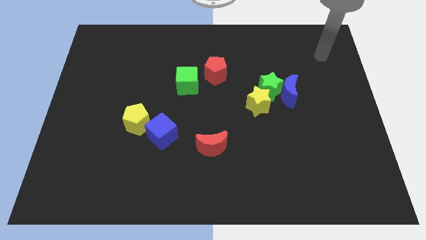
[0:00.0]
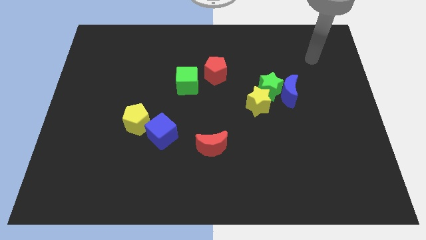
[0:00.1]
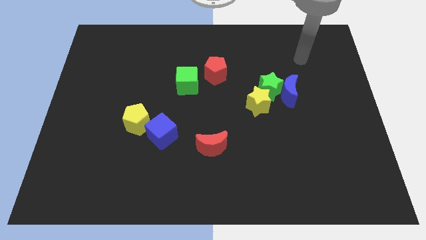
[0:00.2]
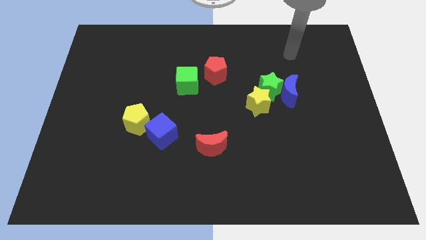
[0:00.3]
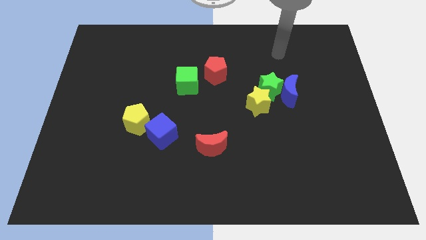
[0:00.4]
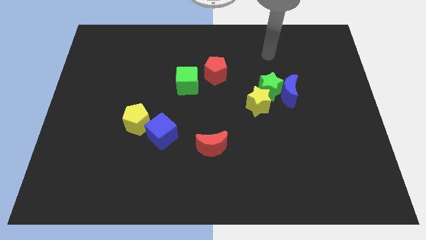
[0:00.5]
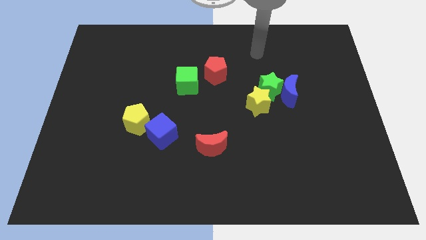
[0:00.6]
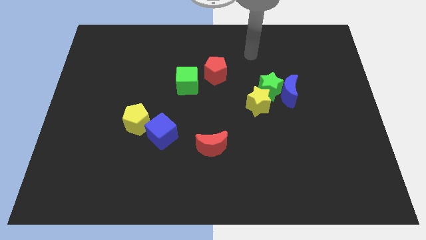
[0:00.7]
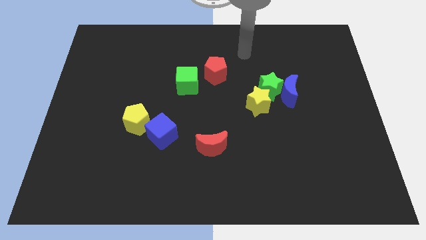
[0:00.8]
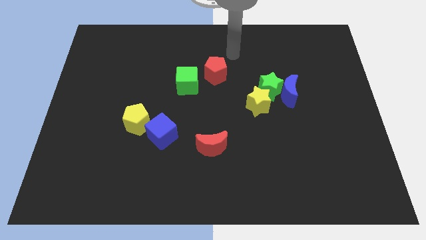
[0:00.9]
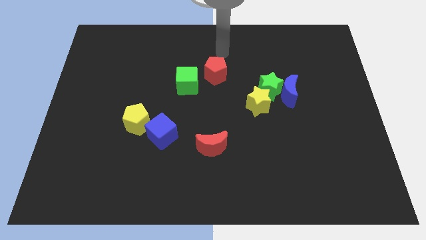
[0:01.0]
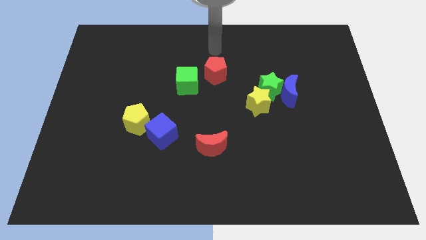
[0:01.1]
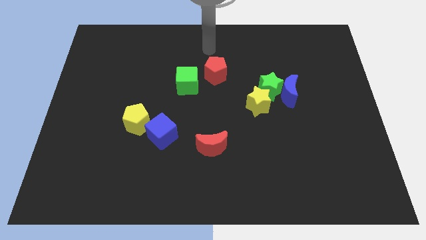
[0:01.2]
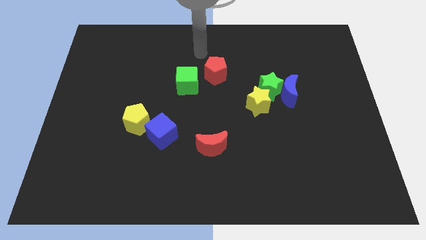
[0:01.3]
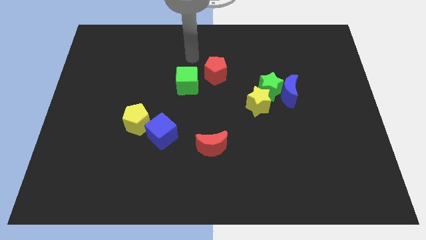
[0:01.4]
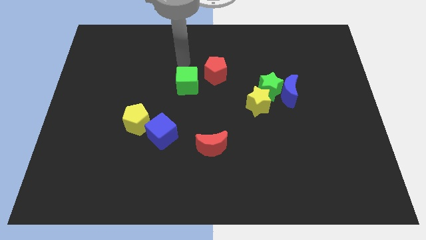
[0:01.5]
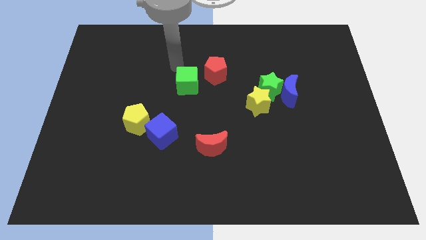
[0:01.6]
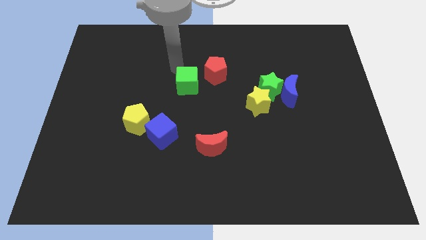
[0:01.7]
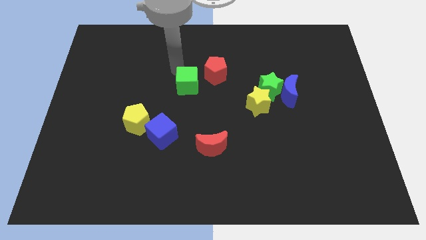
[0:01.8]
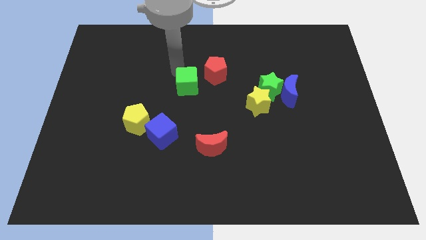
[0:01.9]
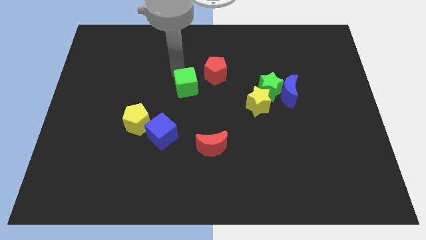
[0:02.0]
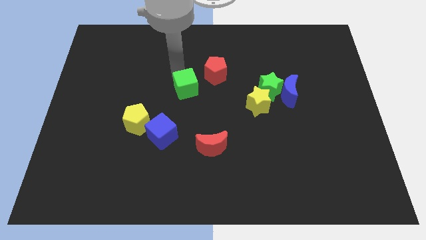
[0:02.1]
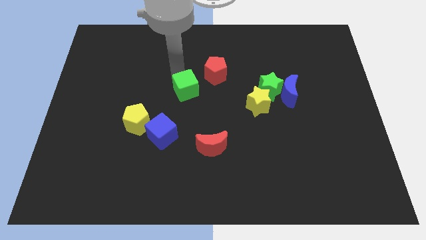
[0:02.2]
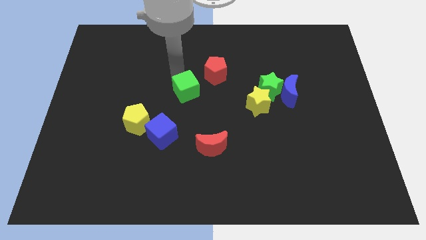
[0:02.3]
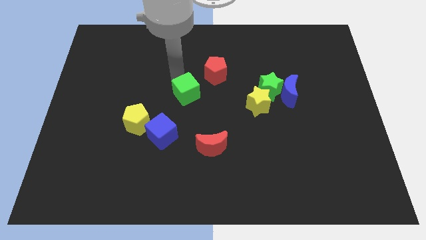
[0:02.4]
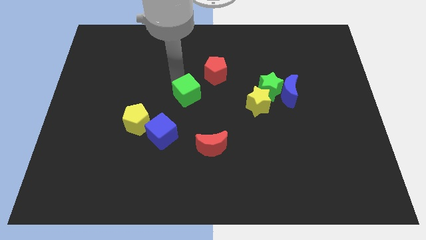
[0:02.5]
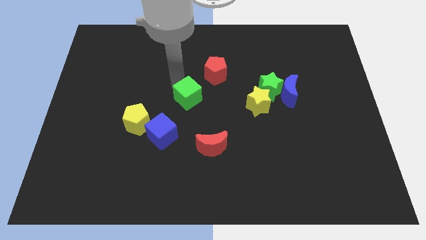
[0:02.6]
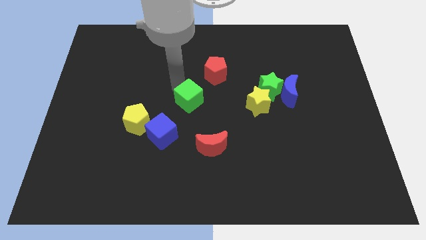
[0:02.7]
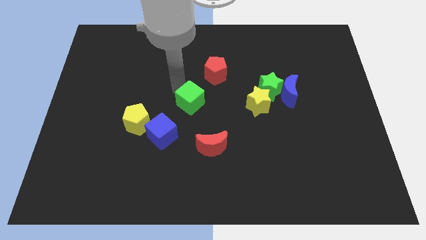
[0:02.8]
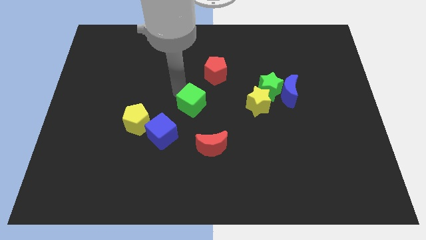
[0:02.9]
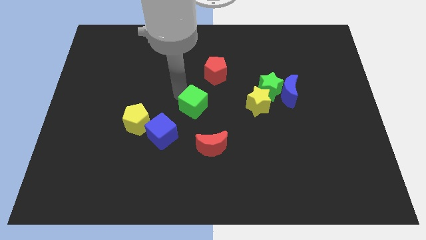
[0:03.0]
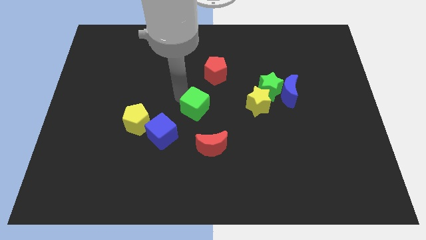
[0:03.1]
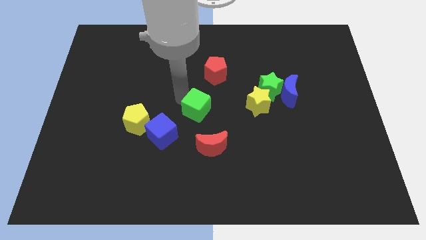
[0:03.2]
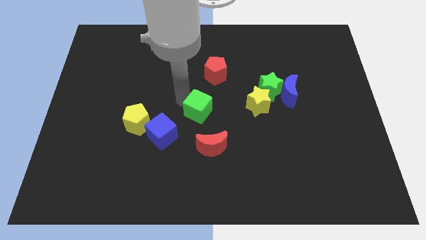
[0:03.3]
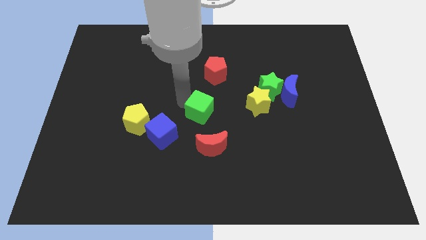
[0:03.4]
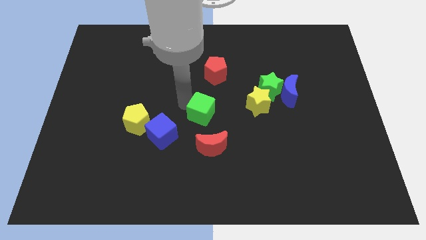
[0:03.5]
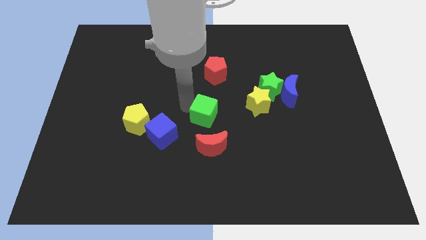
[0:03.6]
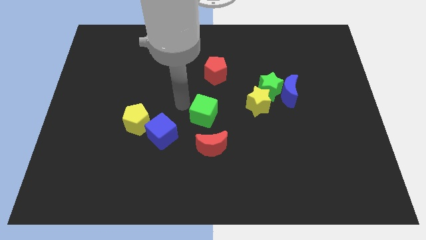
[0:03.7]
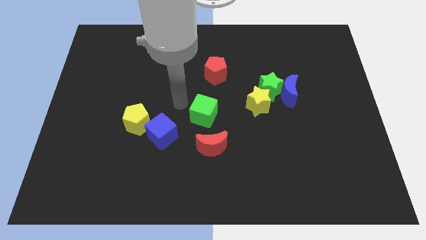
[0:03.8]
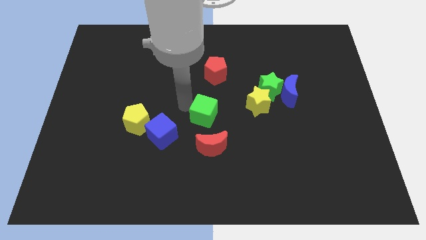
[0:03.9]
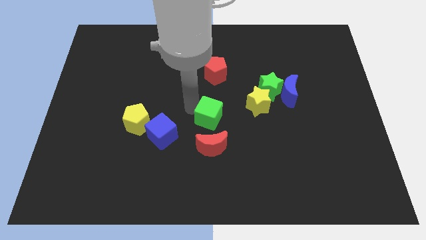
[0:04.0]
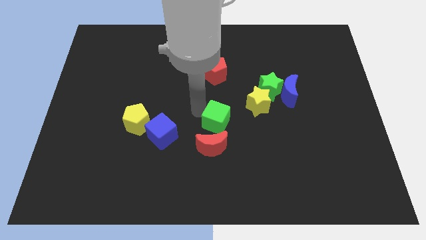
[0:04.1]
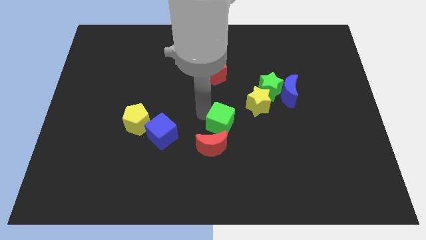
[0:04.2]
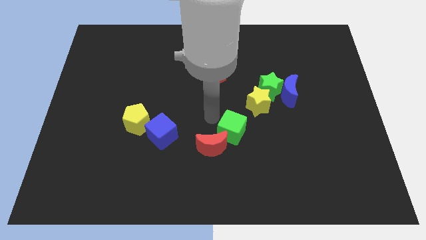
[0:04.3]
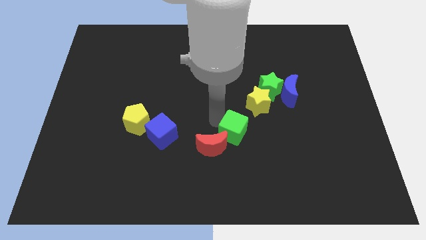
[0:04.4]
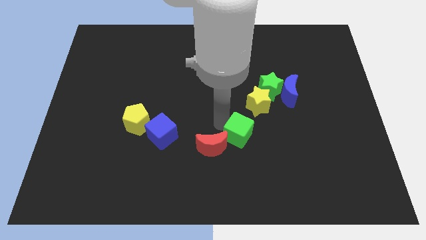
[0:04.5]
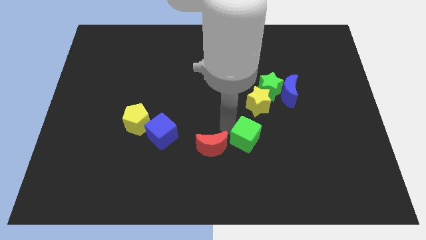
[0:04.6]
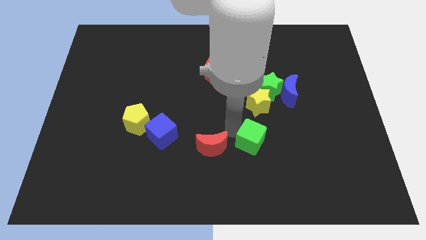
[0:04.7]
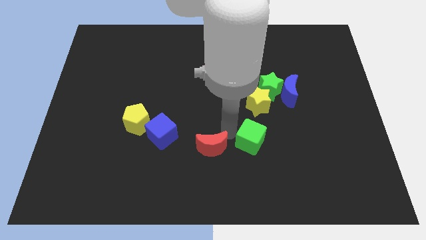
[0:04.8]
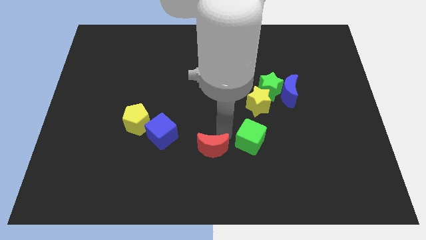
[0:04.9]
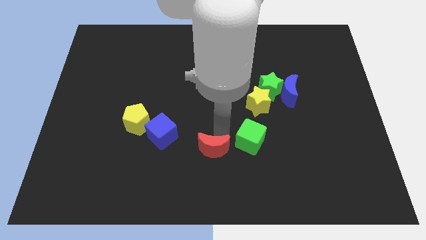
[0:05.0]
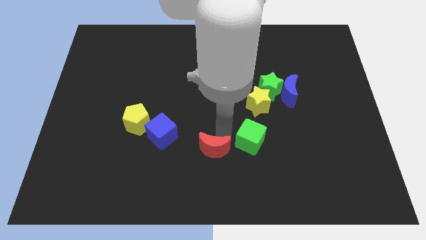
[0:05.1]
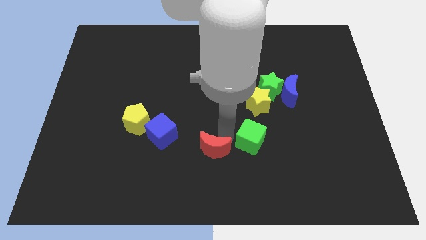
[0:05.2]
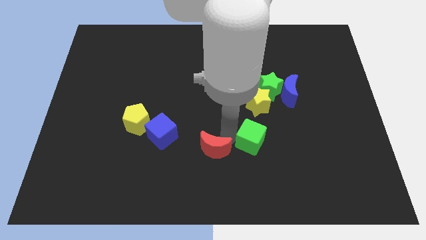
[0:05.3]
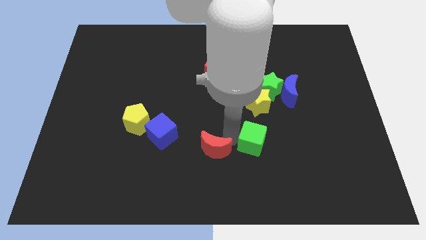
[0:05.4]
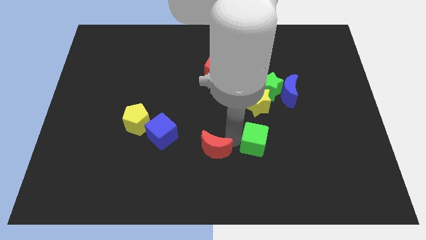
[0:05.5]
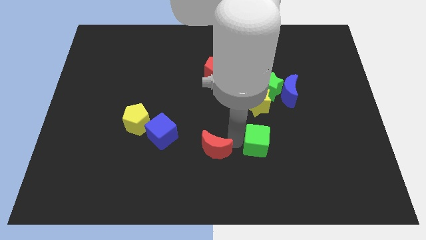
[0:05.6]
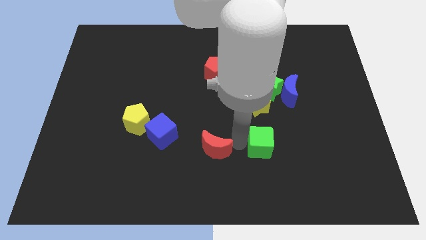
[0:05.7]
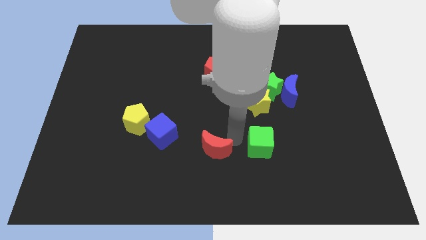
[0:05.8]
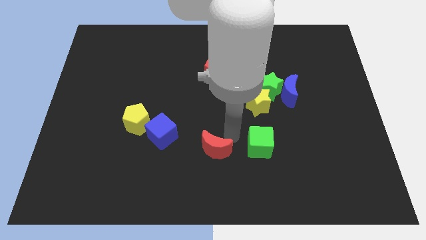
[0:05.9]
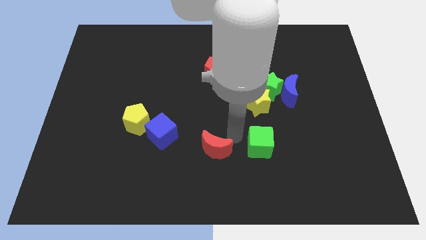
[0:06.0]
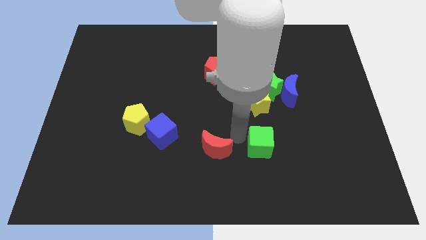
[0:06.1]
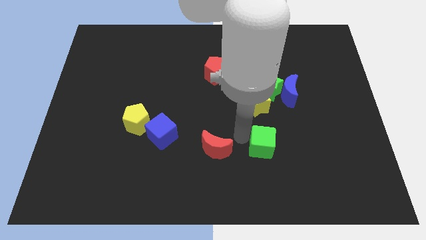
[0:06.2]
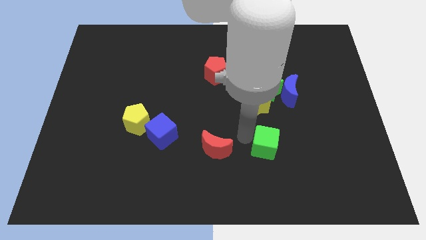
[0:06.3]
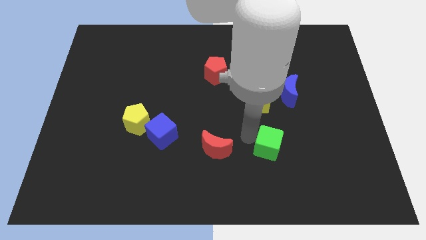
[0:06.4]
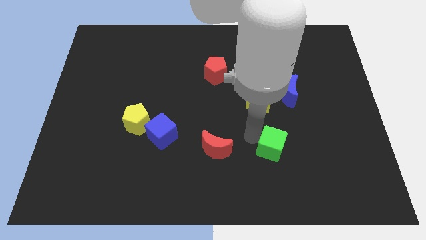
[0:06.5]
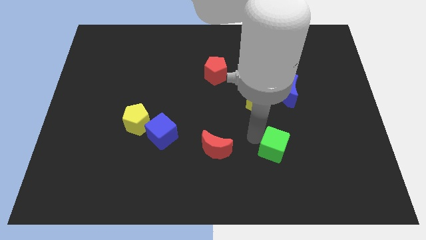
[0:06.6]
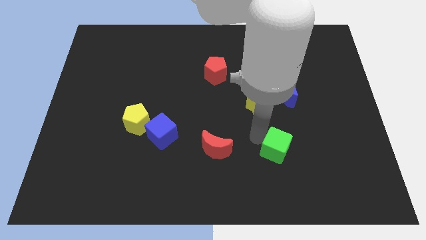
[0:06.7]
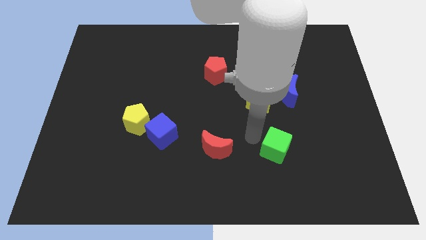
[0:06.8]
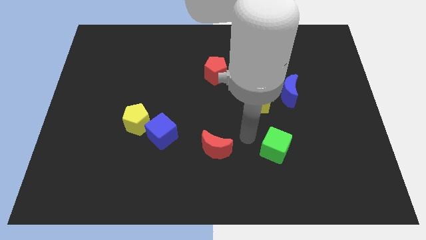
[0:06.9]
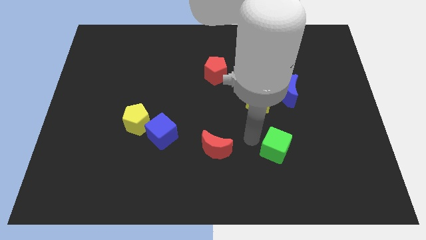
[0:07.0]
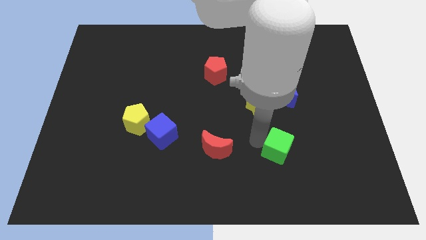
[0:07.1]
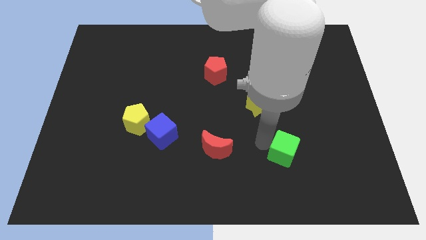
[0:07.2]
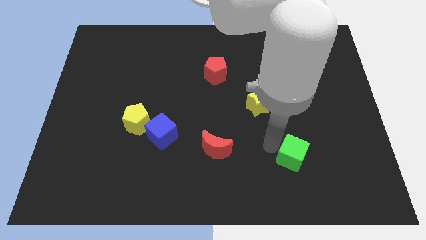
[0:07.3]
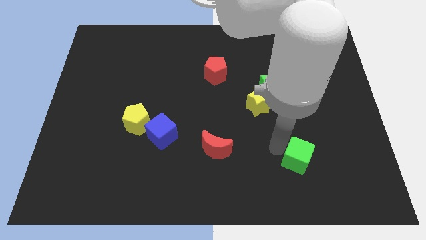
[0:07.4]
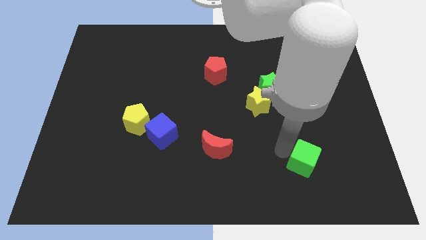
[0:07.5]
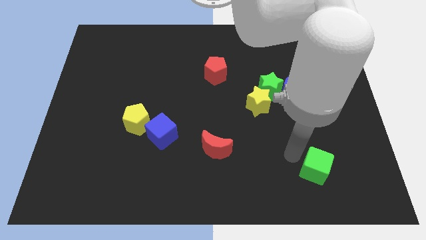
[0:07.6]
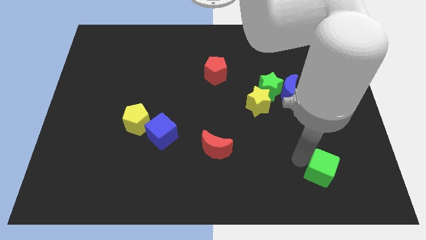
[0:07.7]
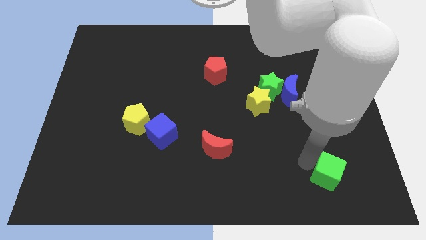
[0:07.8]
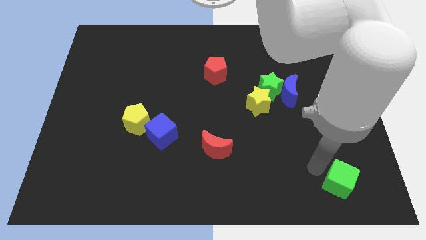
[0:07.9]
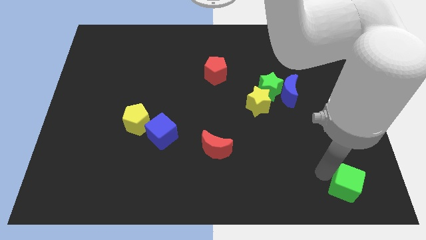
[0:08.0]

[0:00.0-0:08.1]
slide the green cube to the bottom right of the board
